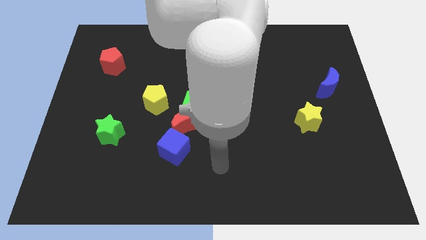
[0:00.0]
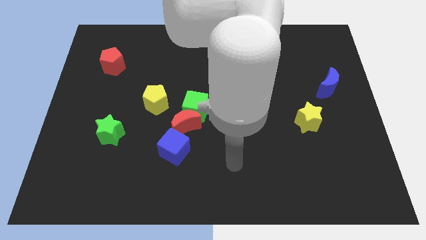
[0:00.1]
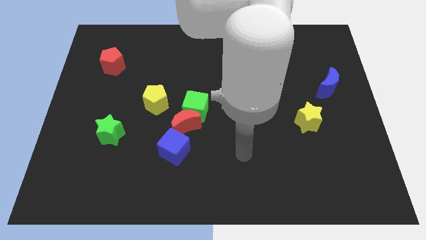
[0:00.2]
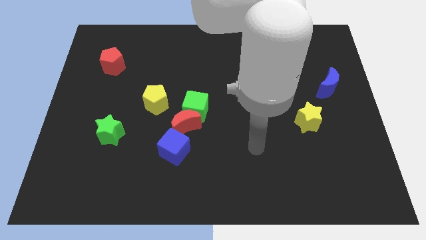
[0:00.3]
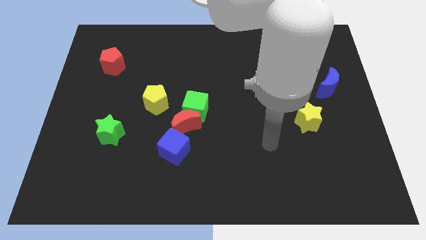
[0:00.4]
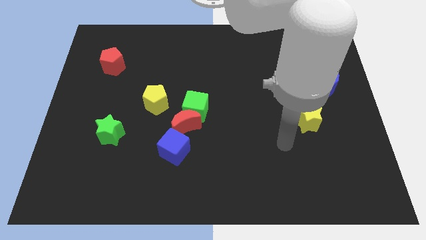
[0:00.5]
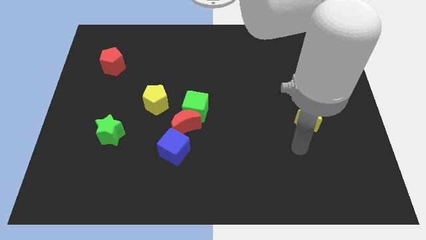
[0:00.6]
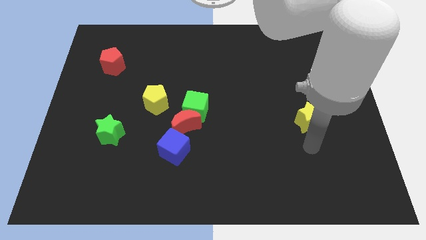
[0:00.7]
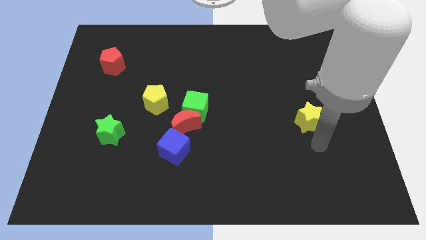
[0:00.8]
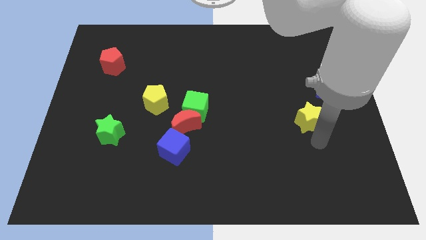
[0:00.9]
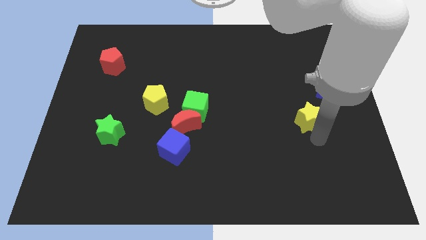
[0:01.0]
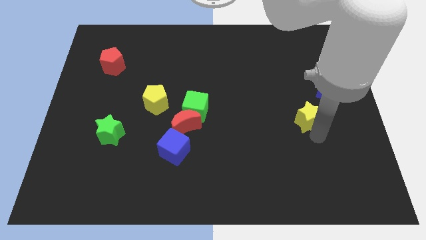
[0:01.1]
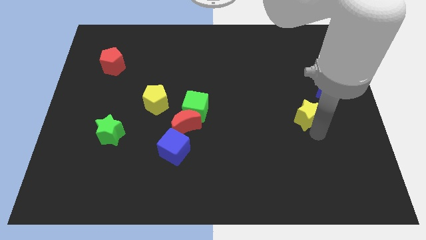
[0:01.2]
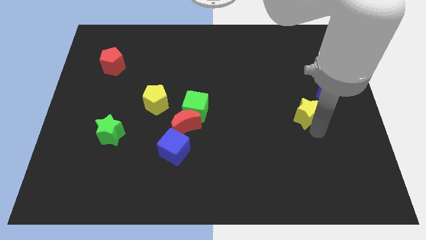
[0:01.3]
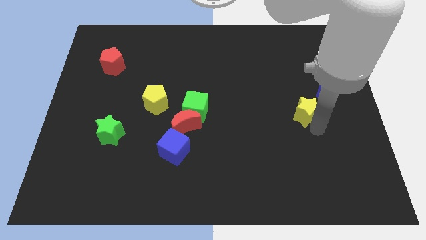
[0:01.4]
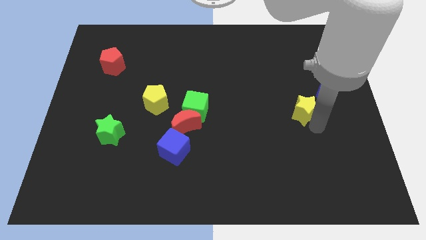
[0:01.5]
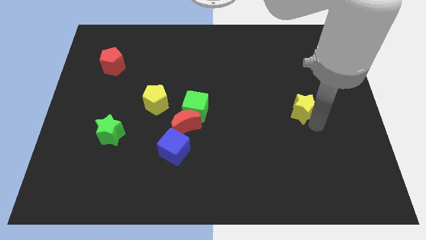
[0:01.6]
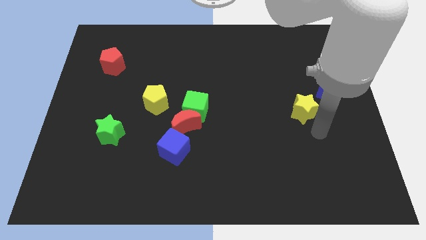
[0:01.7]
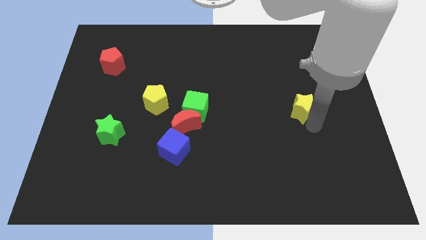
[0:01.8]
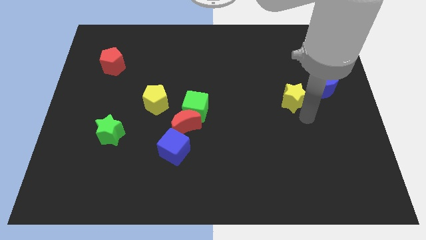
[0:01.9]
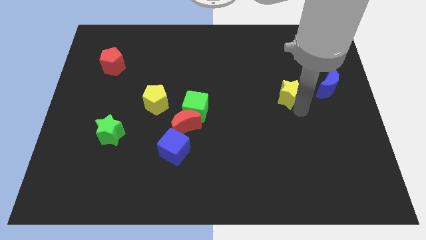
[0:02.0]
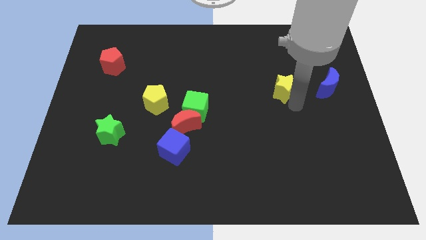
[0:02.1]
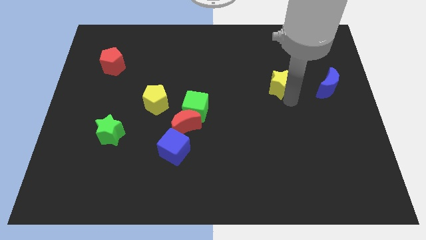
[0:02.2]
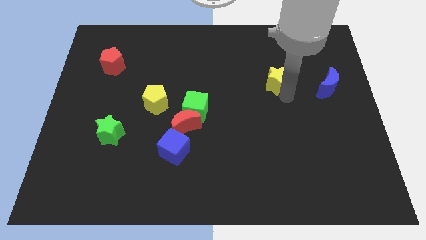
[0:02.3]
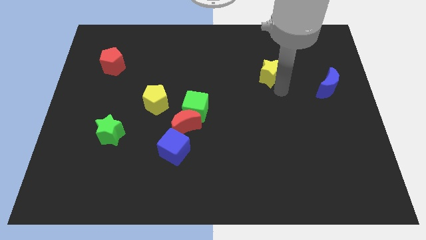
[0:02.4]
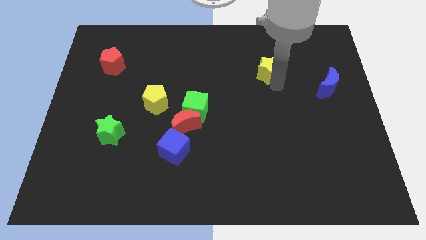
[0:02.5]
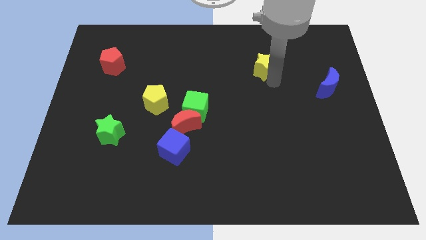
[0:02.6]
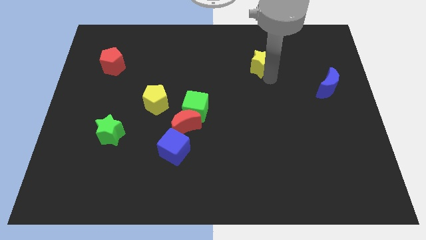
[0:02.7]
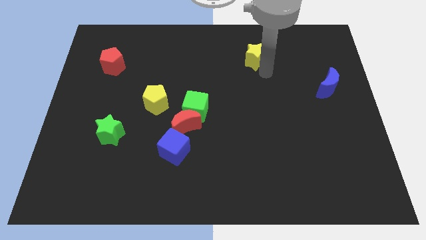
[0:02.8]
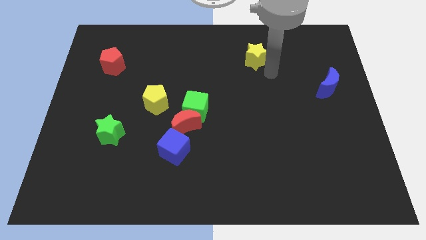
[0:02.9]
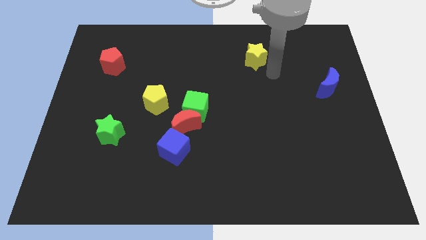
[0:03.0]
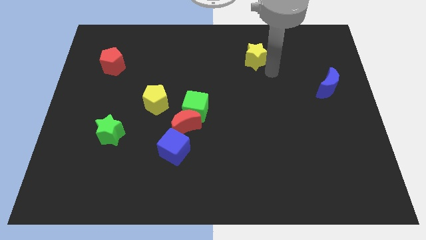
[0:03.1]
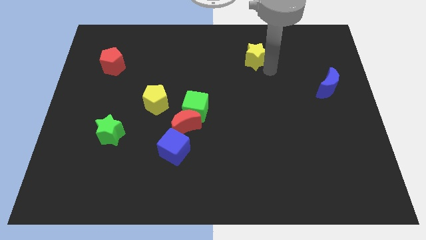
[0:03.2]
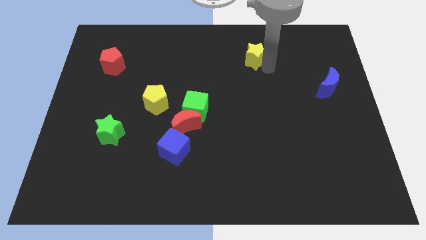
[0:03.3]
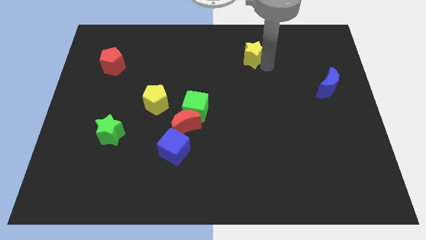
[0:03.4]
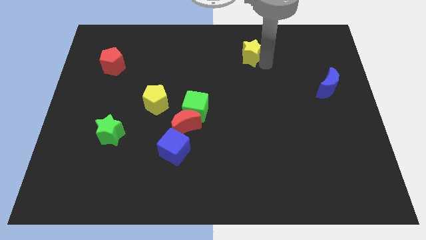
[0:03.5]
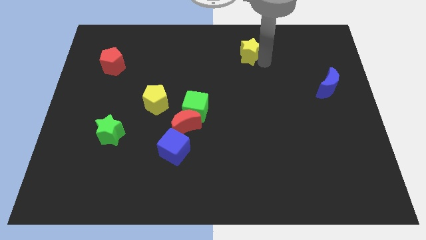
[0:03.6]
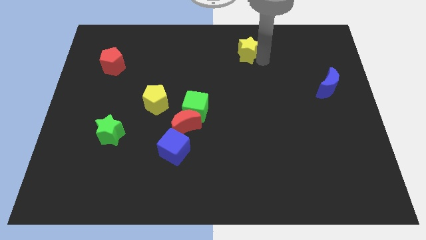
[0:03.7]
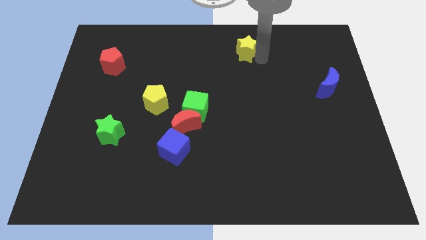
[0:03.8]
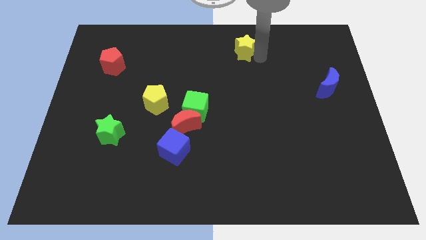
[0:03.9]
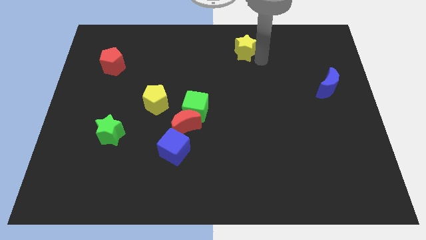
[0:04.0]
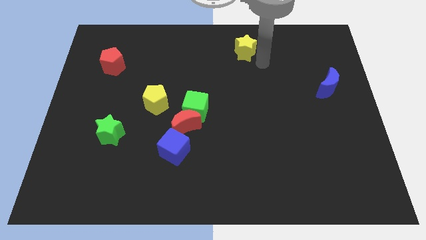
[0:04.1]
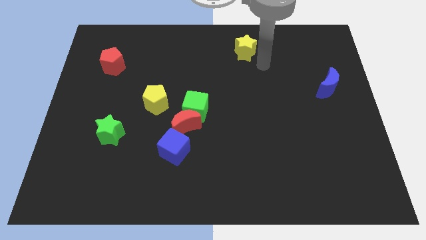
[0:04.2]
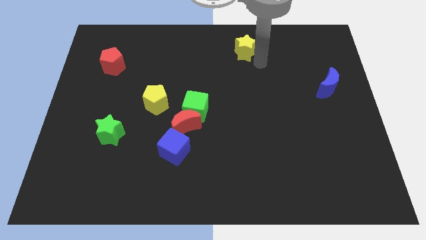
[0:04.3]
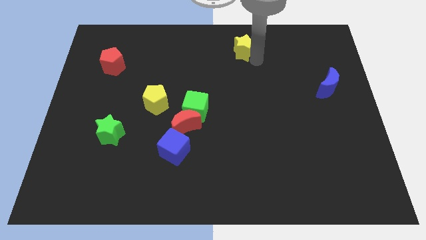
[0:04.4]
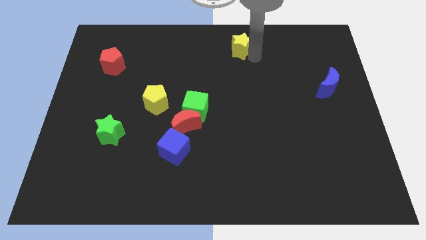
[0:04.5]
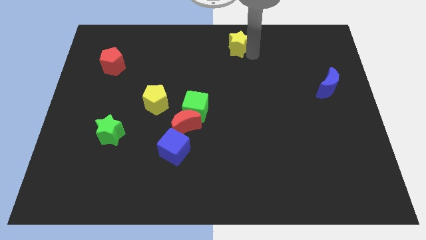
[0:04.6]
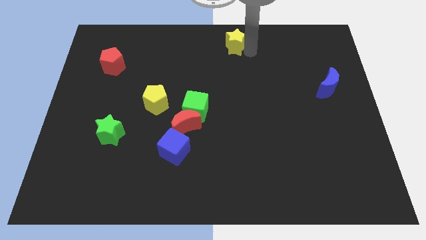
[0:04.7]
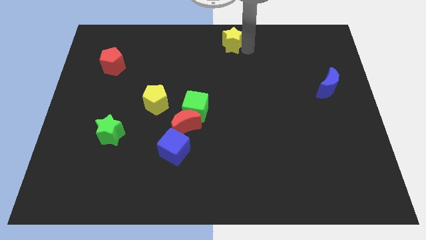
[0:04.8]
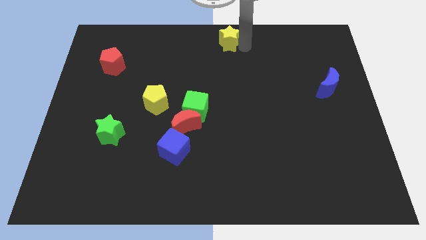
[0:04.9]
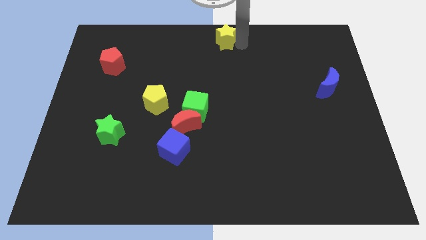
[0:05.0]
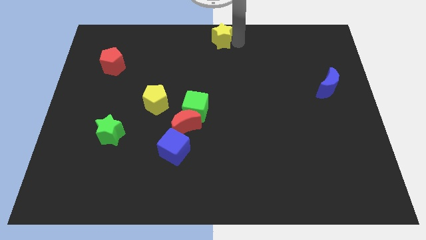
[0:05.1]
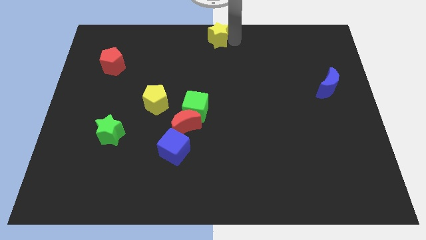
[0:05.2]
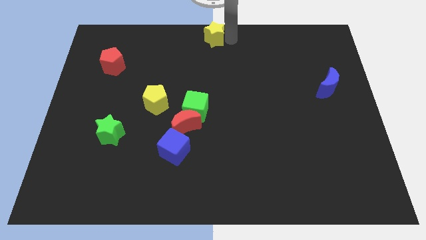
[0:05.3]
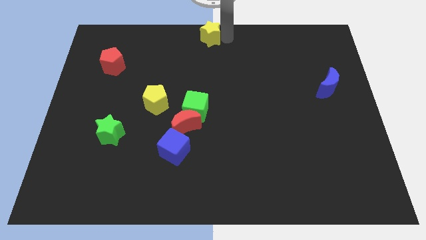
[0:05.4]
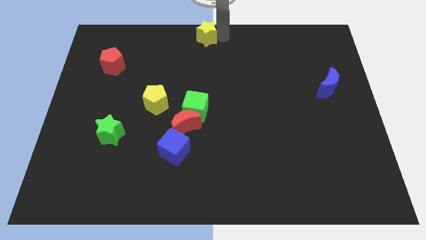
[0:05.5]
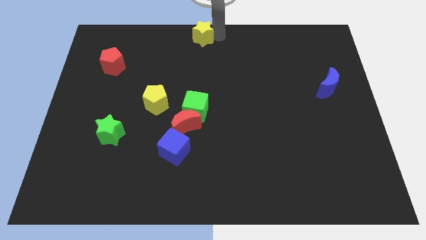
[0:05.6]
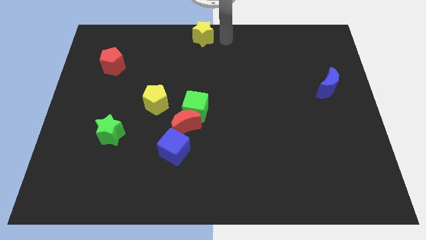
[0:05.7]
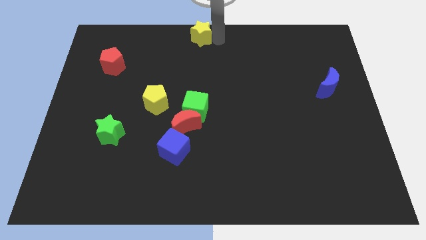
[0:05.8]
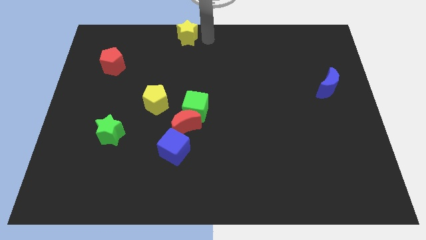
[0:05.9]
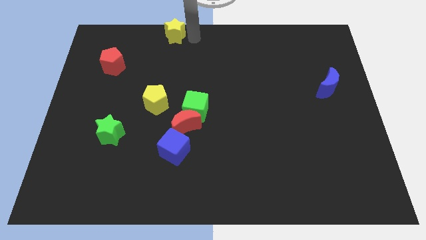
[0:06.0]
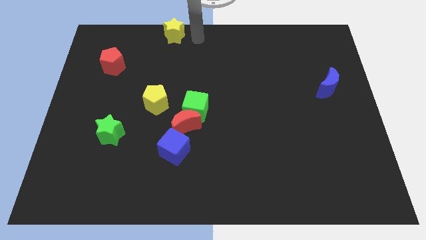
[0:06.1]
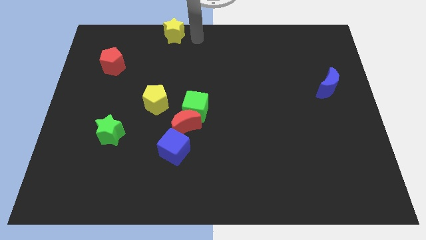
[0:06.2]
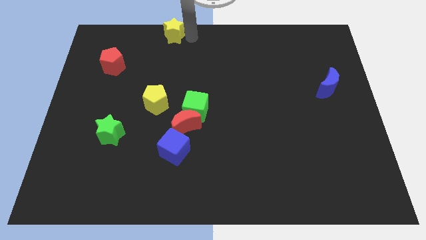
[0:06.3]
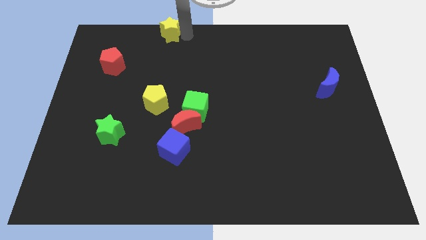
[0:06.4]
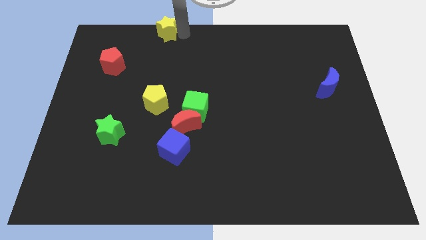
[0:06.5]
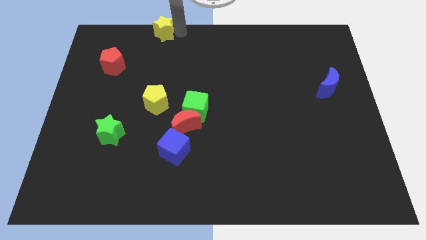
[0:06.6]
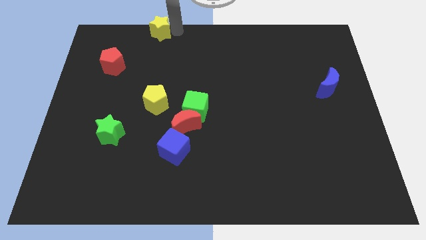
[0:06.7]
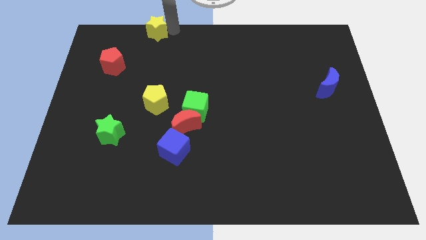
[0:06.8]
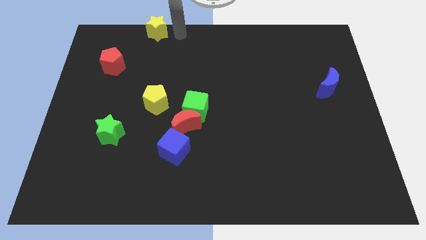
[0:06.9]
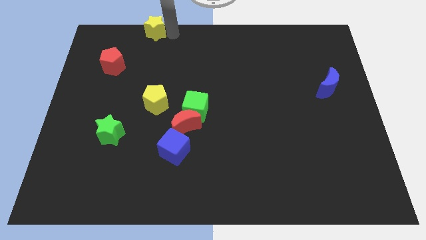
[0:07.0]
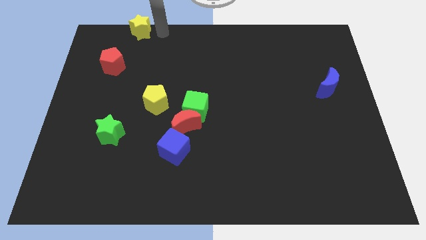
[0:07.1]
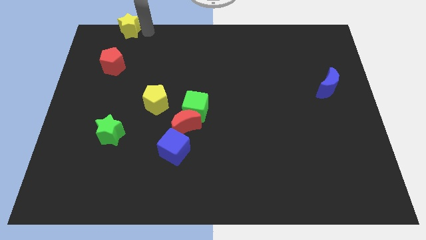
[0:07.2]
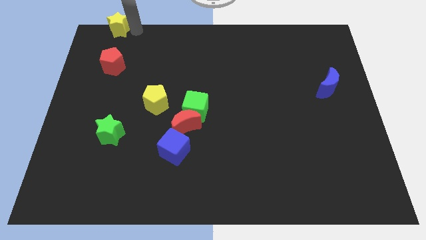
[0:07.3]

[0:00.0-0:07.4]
slide the yellow star to the top left of the board
